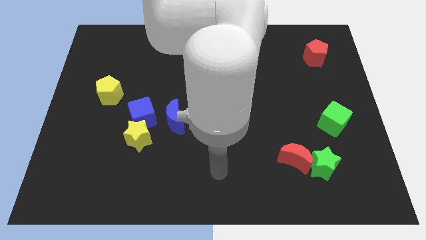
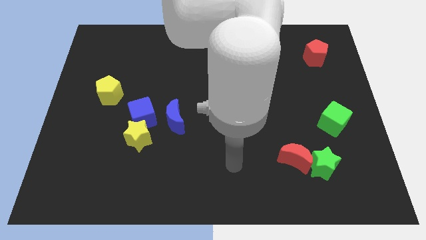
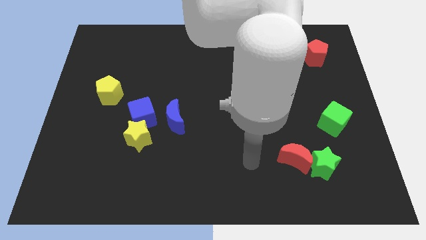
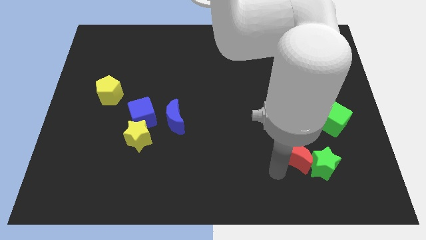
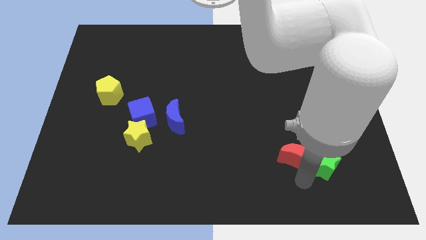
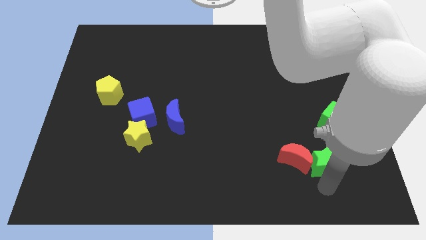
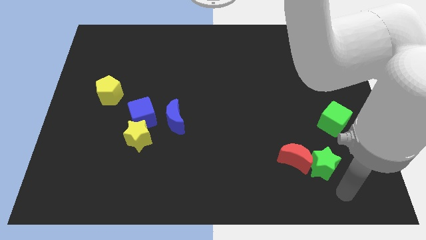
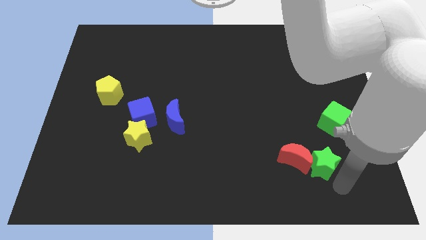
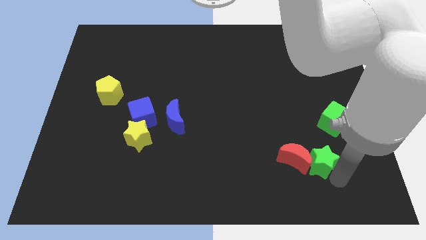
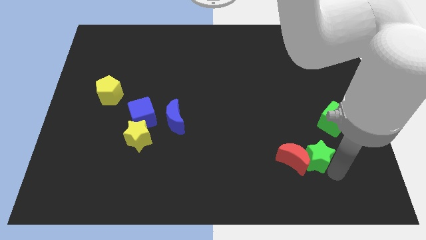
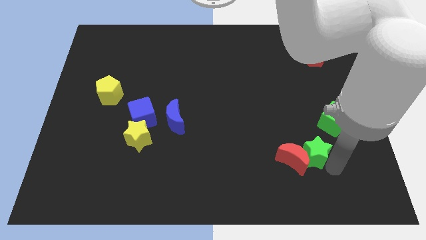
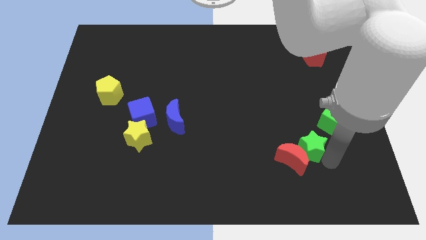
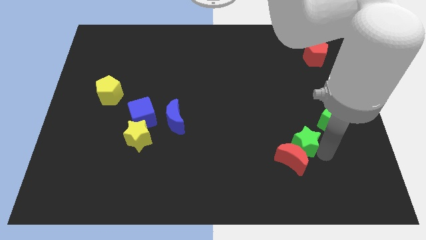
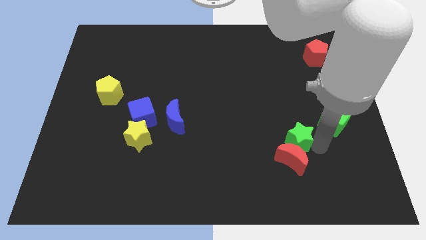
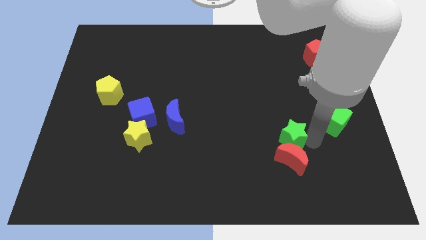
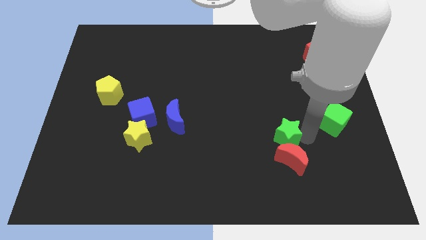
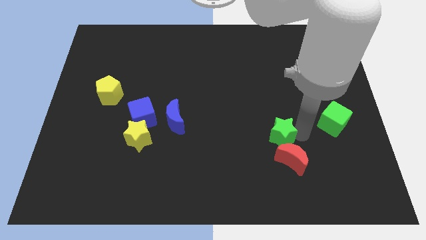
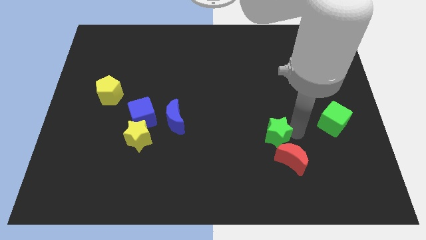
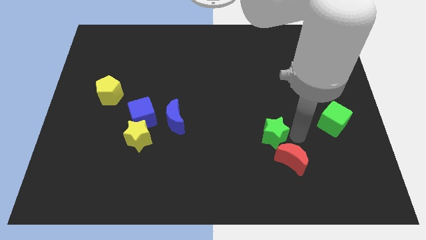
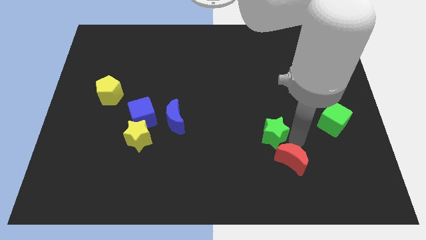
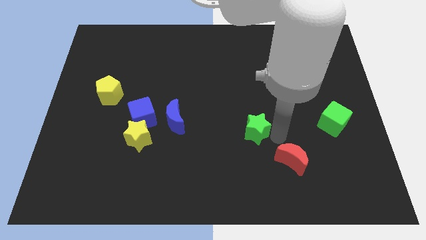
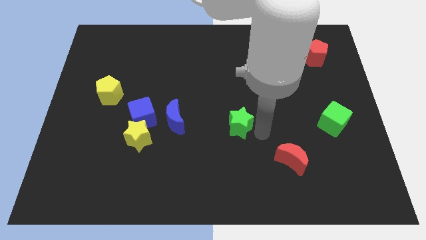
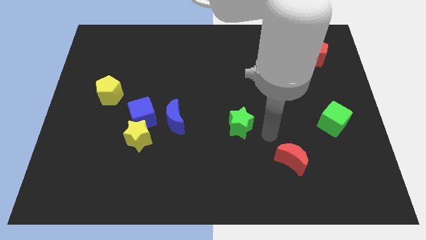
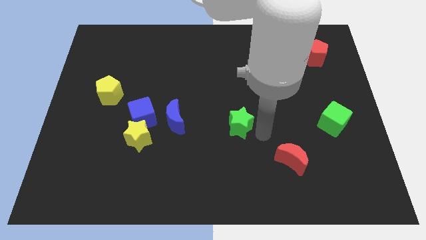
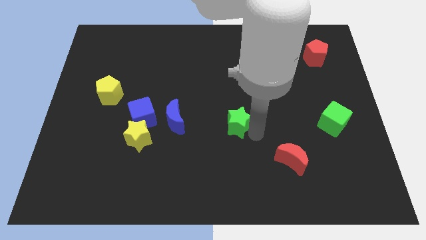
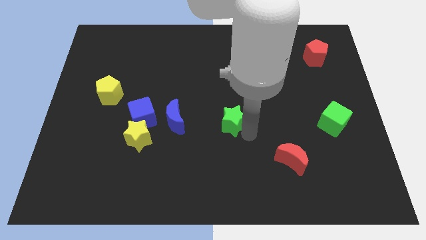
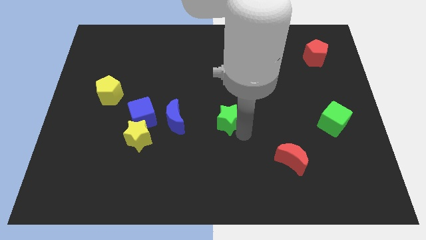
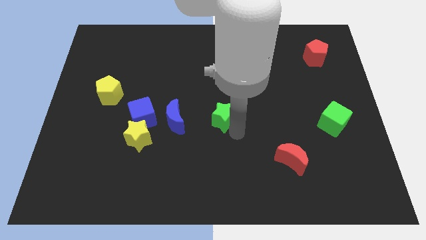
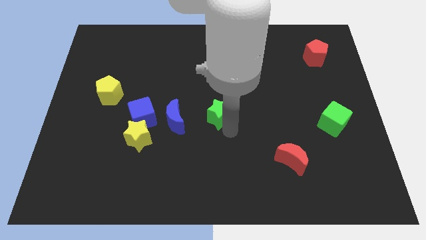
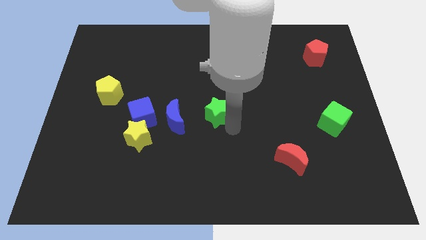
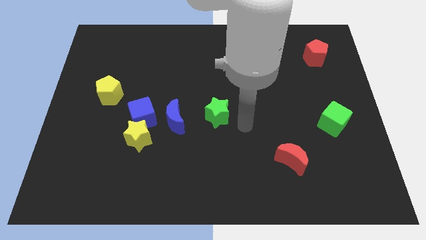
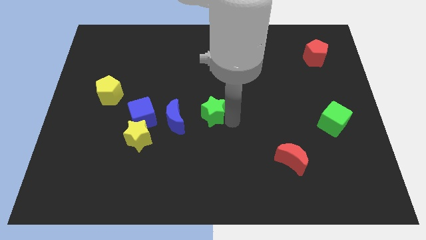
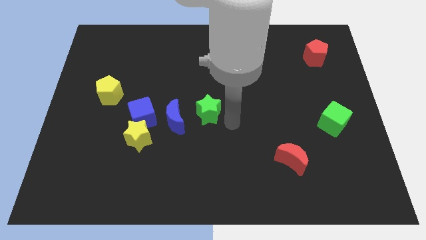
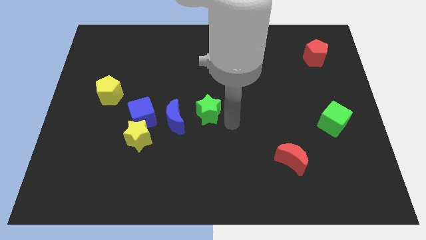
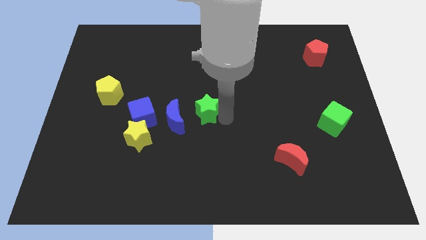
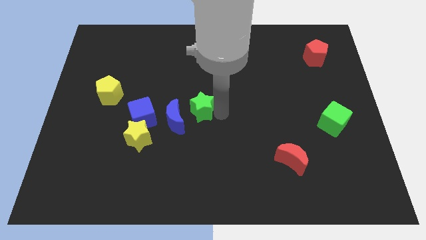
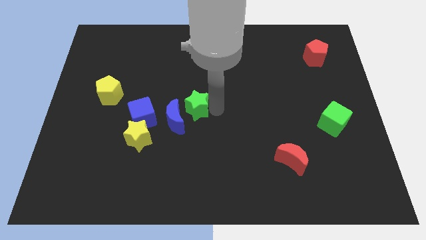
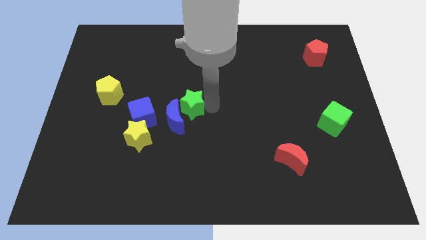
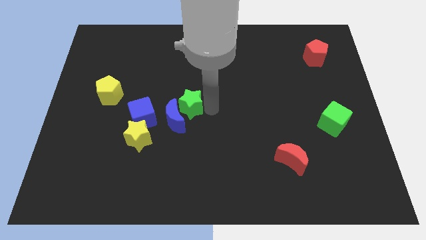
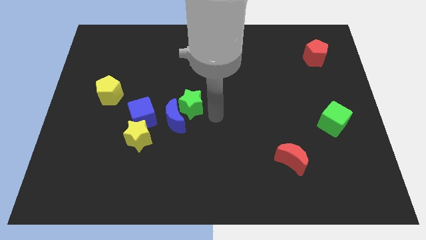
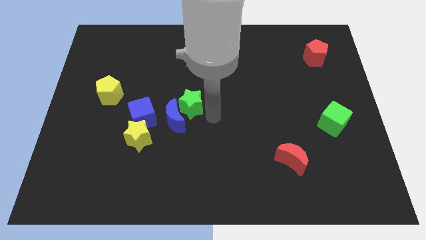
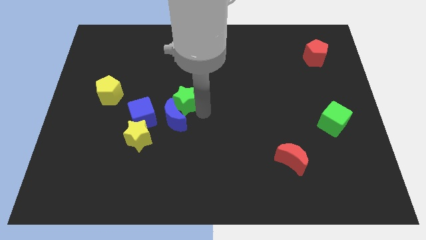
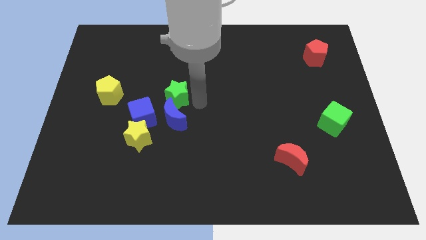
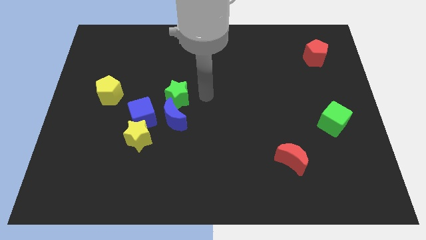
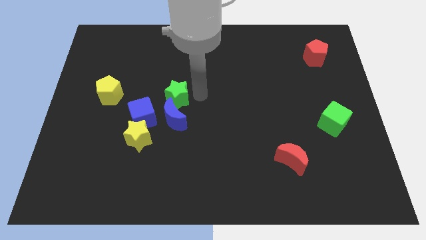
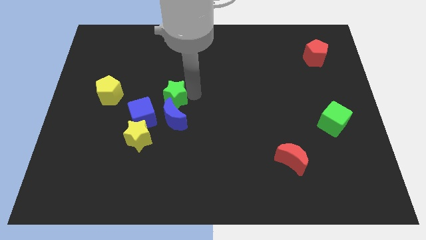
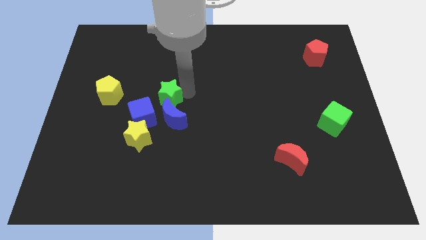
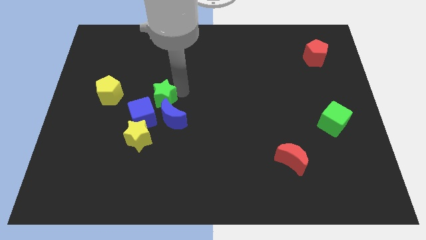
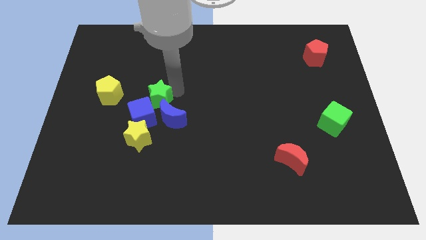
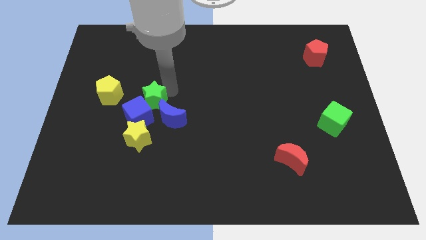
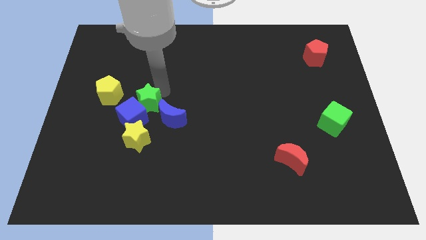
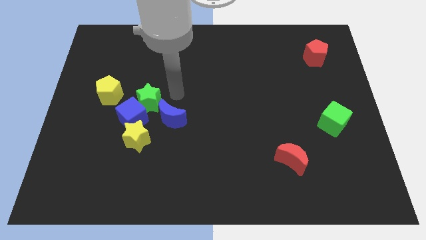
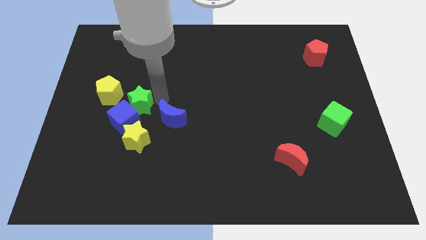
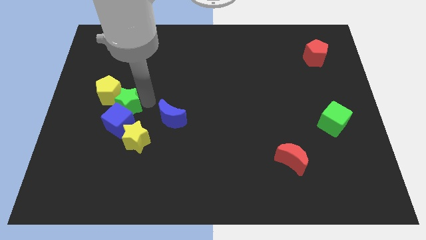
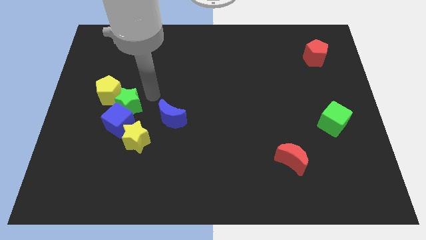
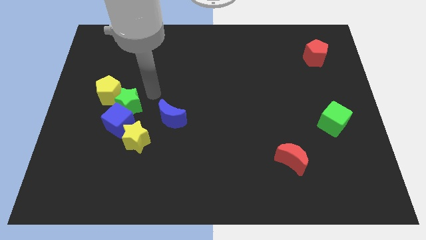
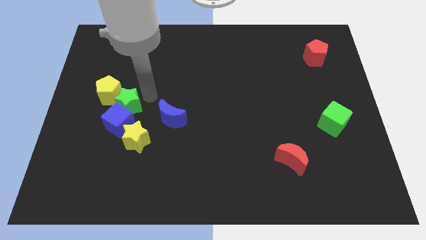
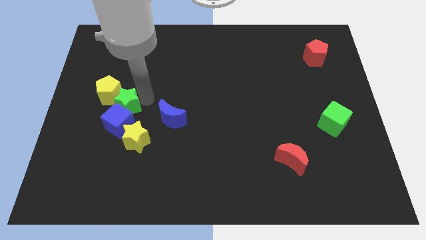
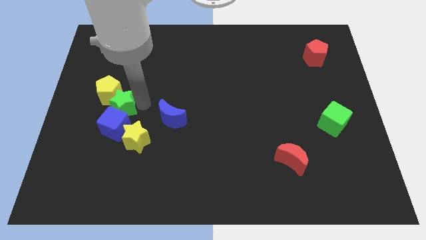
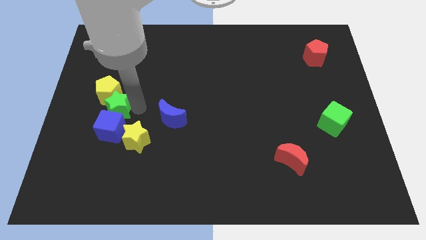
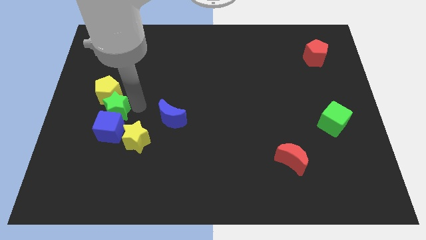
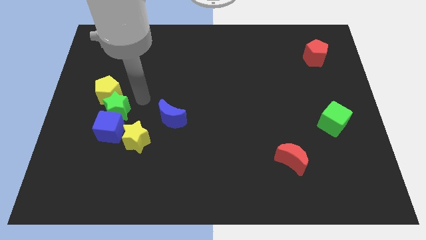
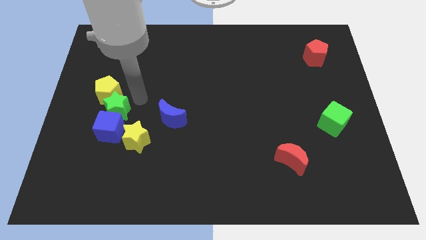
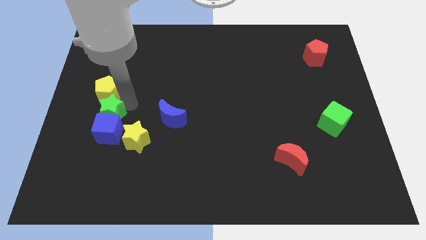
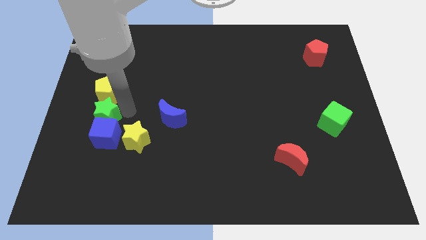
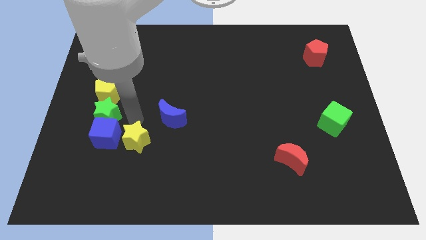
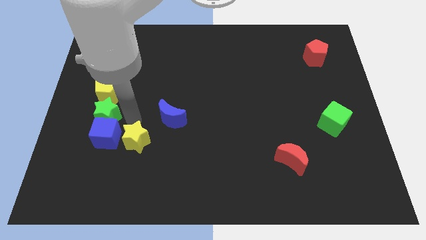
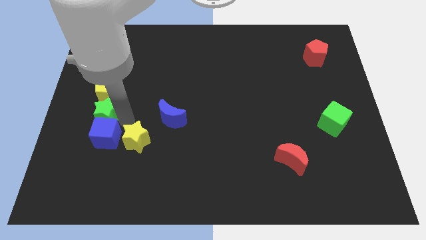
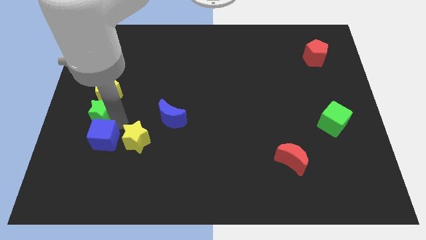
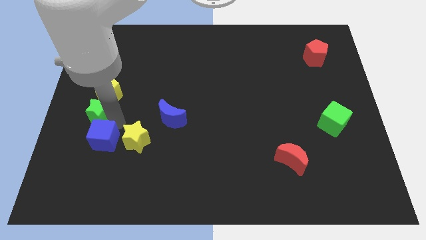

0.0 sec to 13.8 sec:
push the green star to the center left
